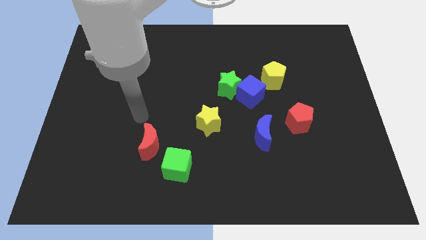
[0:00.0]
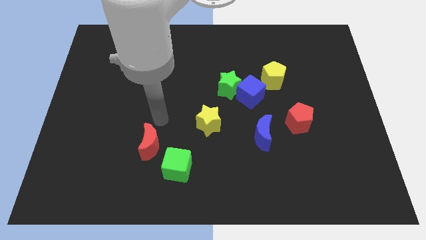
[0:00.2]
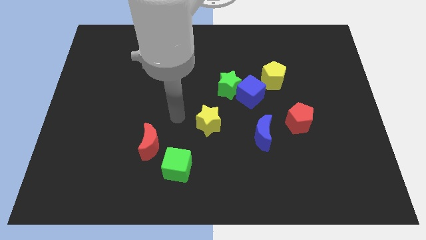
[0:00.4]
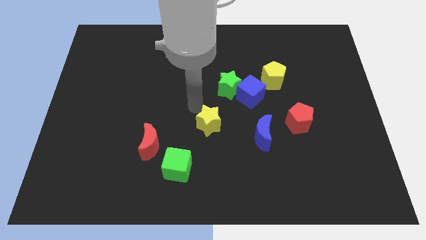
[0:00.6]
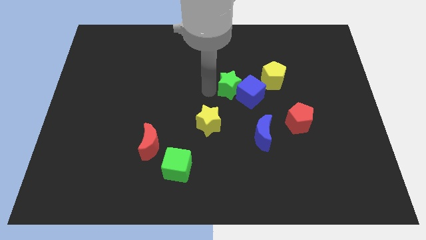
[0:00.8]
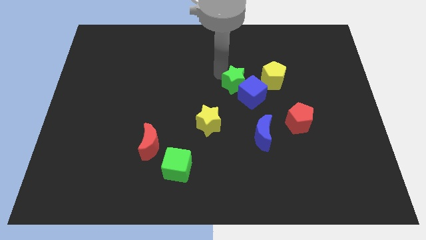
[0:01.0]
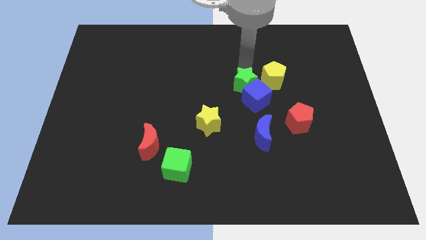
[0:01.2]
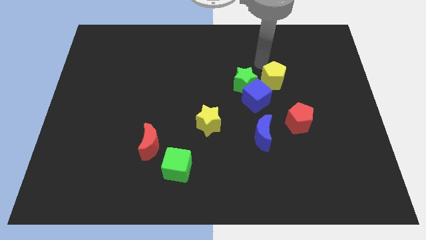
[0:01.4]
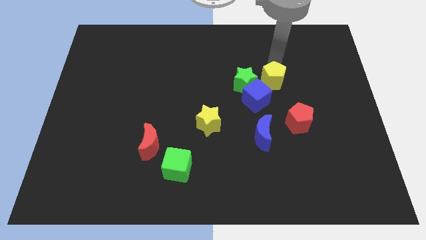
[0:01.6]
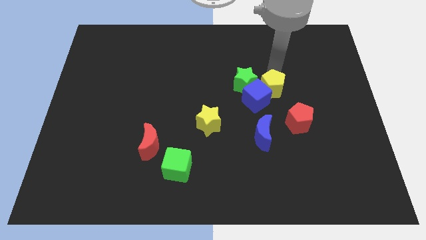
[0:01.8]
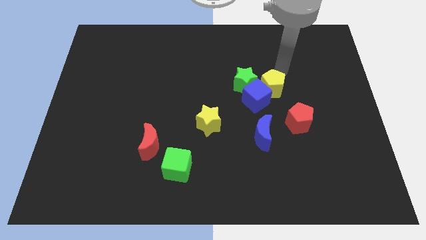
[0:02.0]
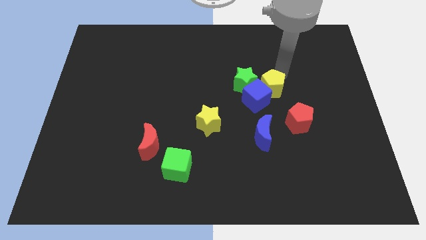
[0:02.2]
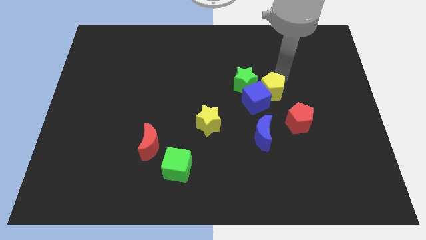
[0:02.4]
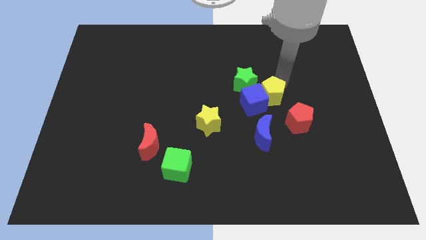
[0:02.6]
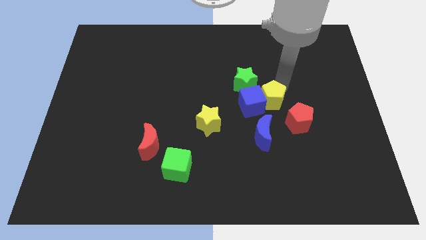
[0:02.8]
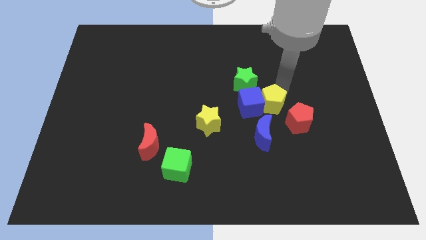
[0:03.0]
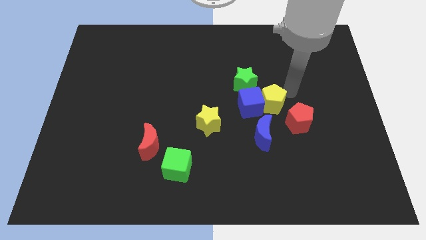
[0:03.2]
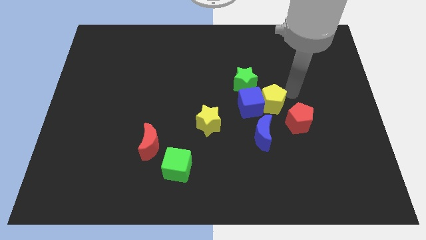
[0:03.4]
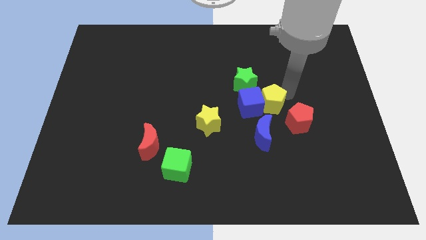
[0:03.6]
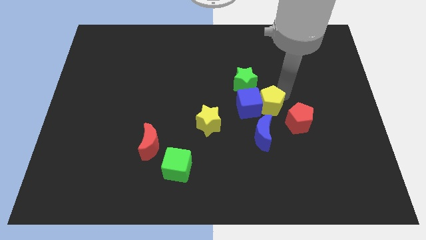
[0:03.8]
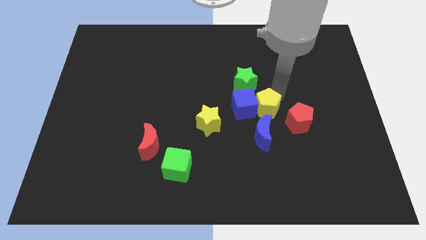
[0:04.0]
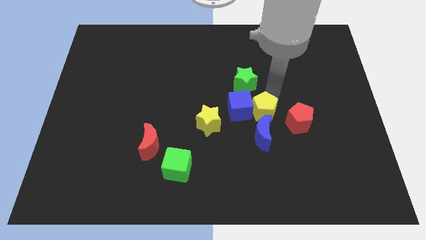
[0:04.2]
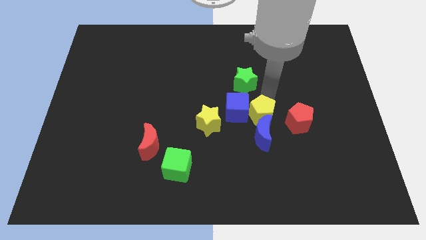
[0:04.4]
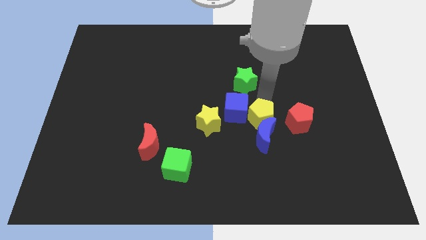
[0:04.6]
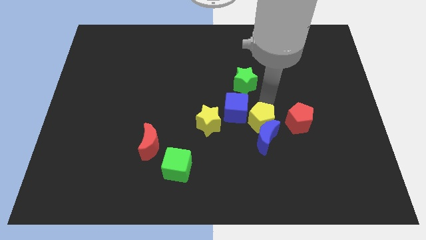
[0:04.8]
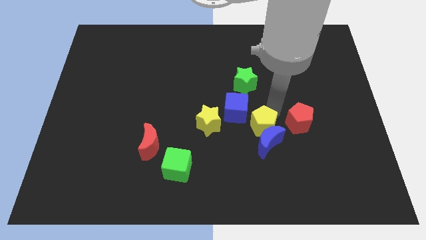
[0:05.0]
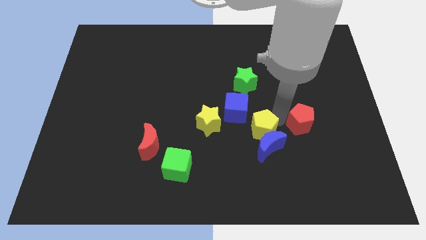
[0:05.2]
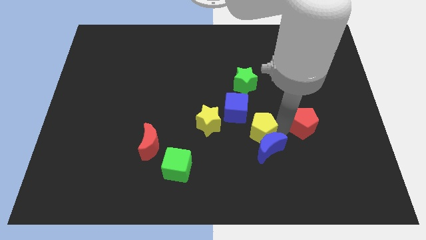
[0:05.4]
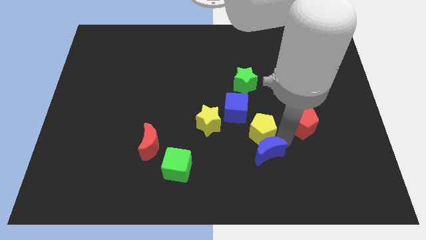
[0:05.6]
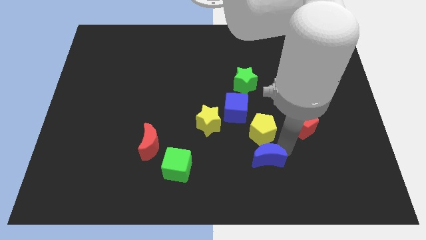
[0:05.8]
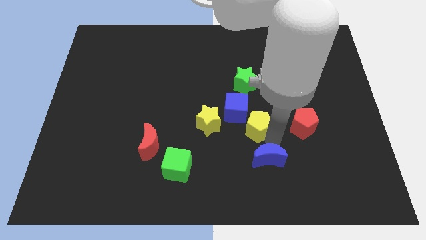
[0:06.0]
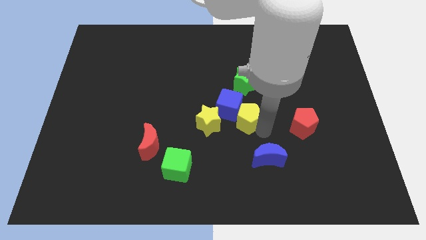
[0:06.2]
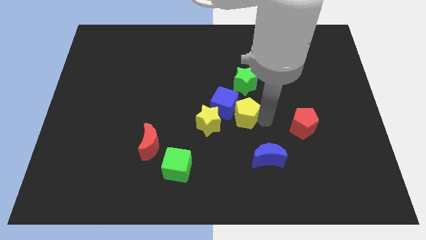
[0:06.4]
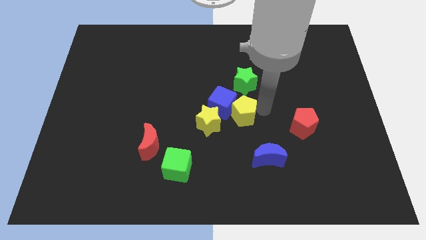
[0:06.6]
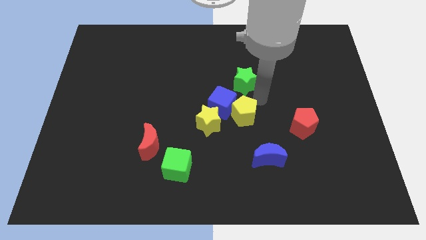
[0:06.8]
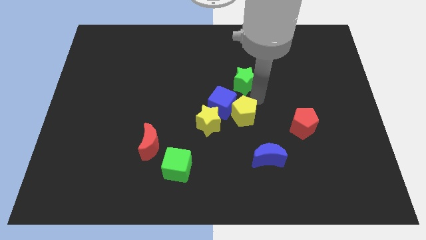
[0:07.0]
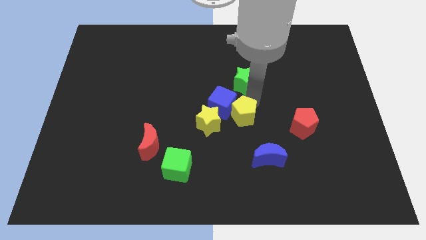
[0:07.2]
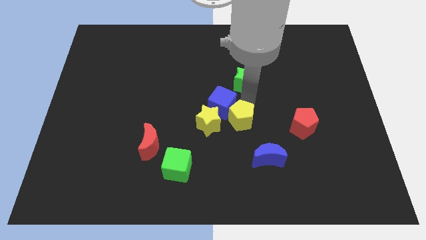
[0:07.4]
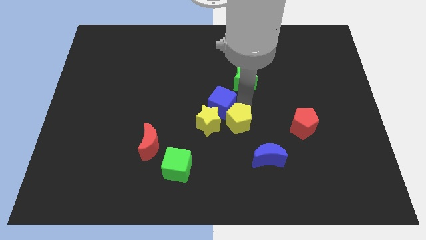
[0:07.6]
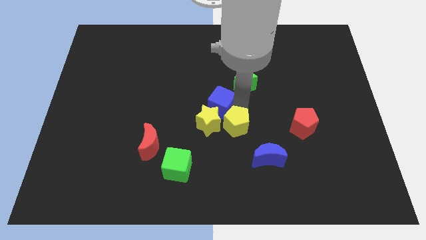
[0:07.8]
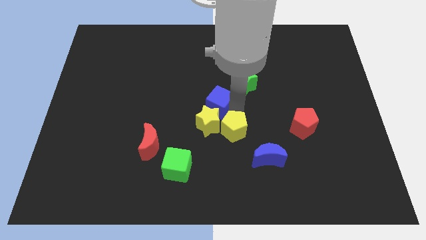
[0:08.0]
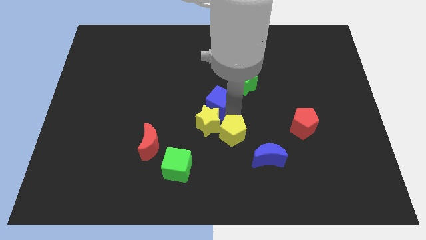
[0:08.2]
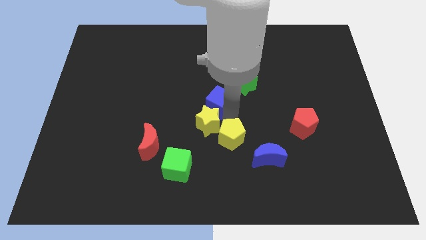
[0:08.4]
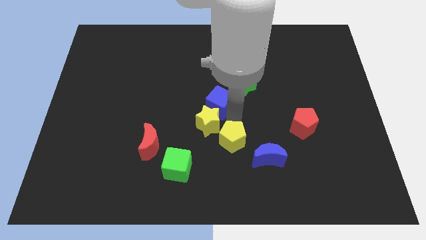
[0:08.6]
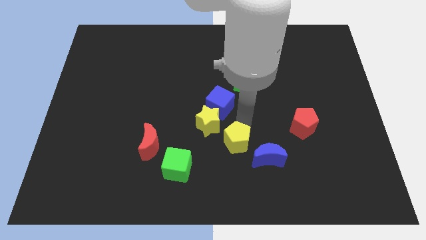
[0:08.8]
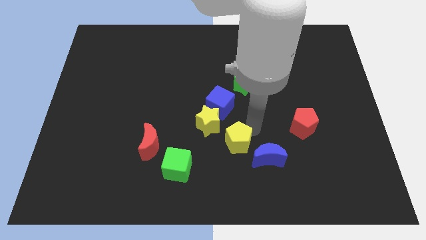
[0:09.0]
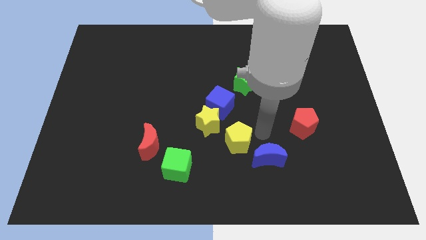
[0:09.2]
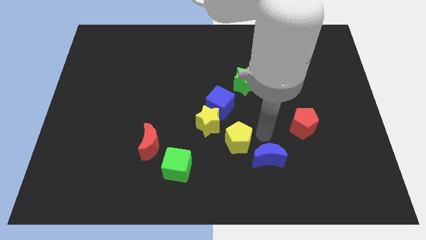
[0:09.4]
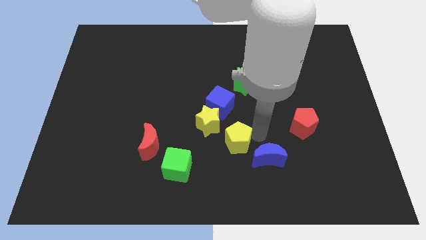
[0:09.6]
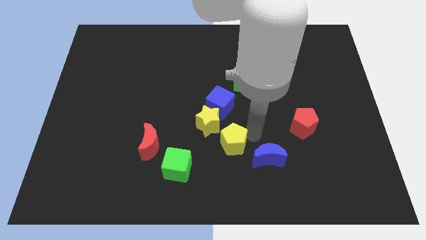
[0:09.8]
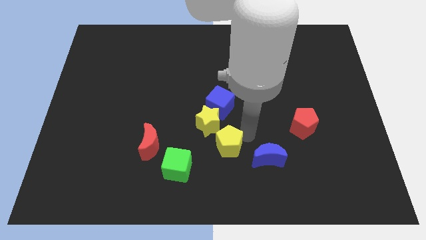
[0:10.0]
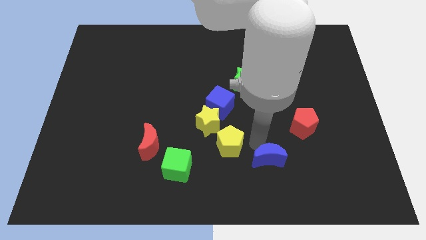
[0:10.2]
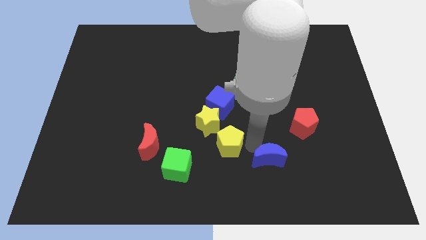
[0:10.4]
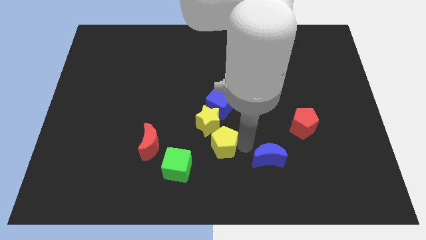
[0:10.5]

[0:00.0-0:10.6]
push the yellow pentagon right of the red moon
